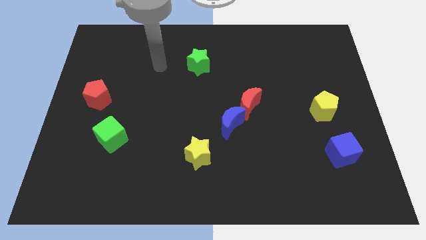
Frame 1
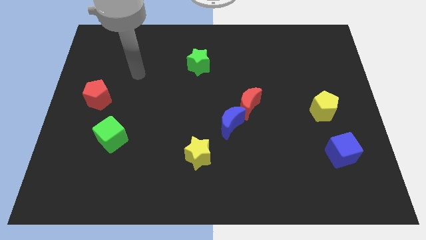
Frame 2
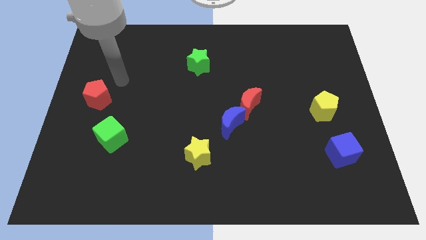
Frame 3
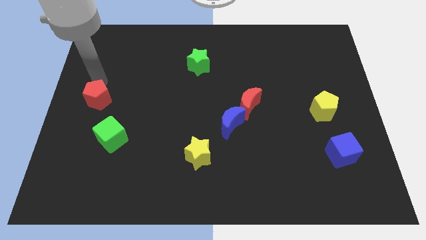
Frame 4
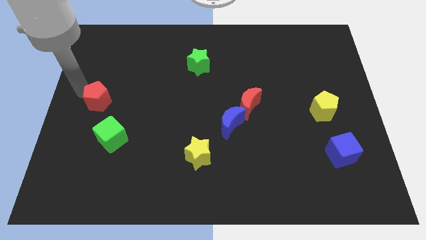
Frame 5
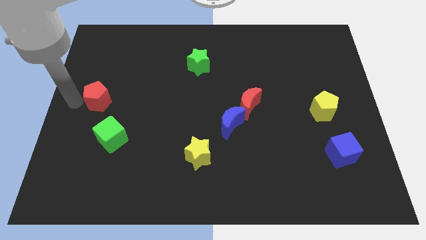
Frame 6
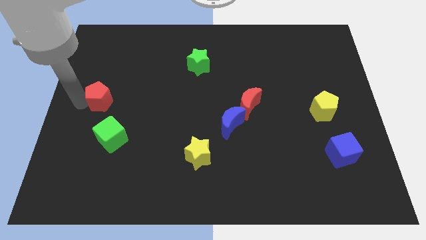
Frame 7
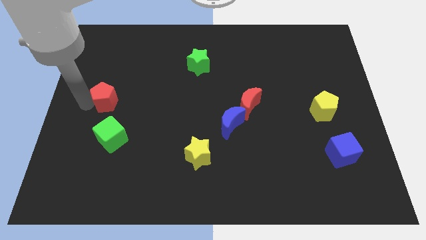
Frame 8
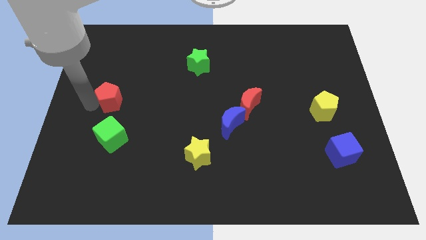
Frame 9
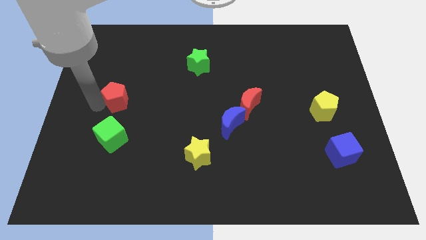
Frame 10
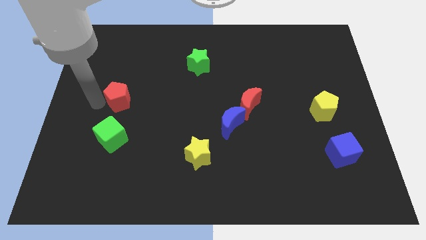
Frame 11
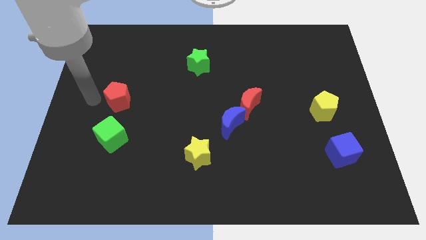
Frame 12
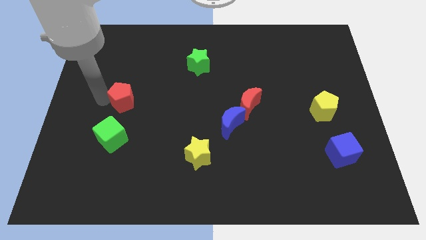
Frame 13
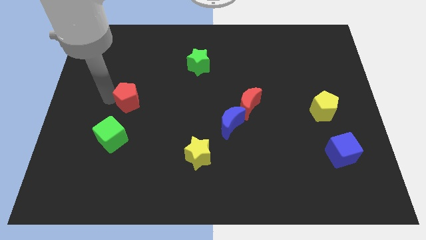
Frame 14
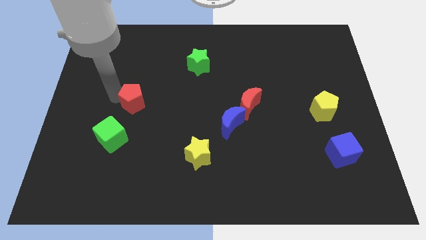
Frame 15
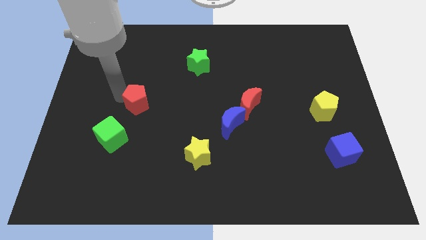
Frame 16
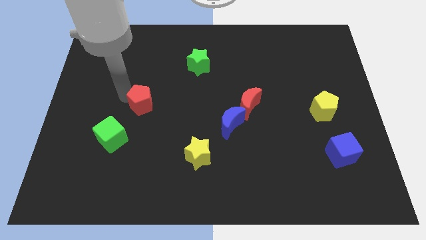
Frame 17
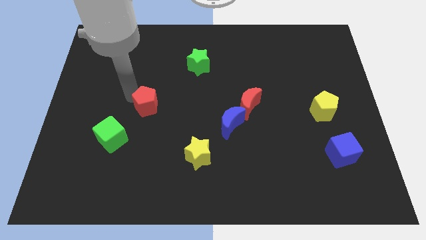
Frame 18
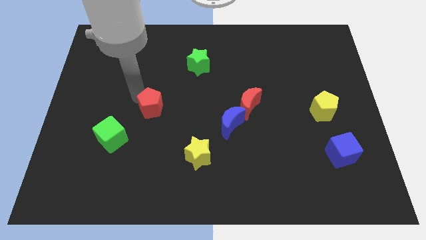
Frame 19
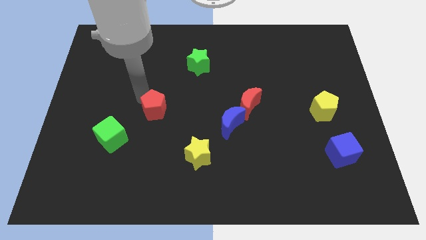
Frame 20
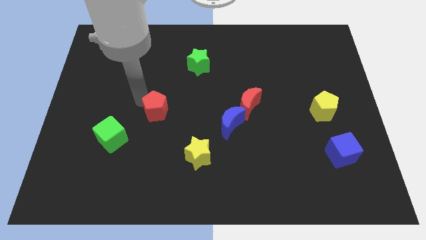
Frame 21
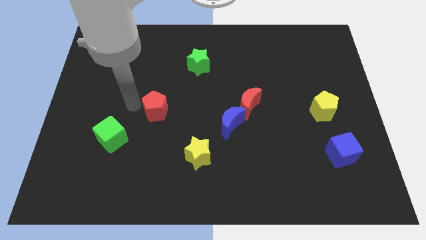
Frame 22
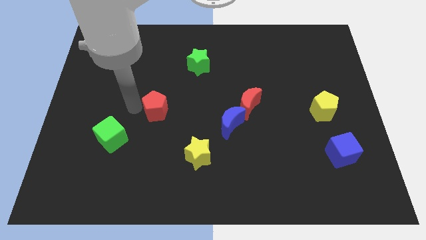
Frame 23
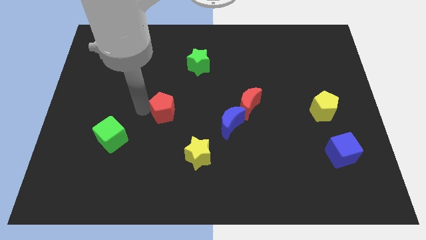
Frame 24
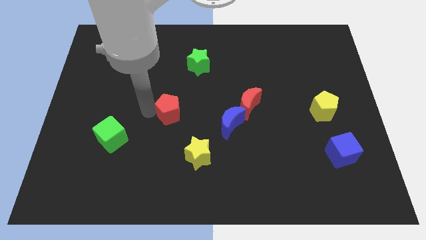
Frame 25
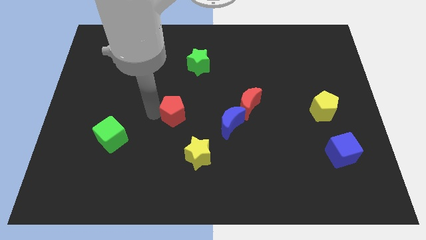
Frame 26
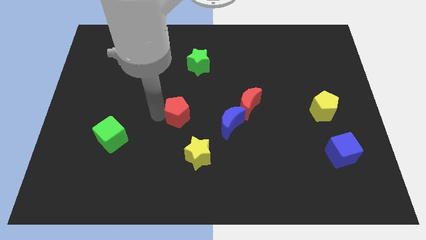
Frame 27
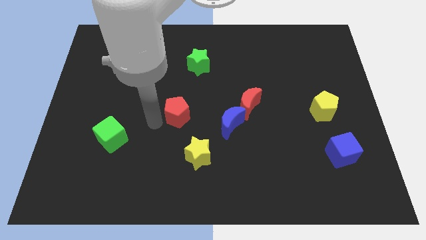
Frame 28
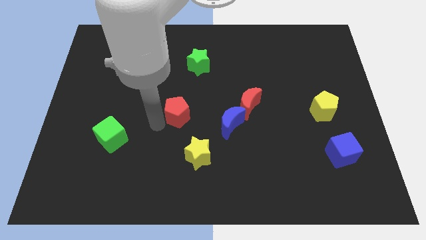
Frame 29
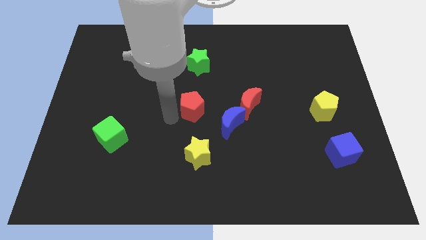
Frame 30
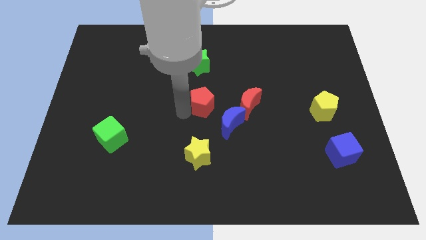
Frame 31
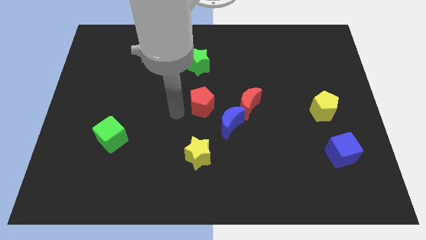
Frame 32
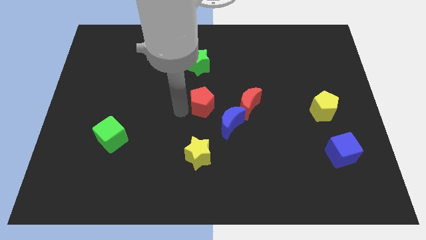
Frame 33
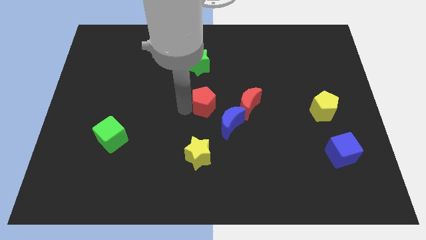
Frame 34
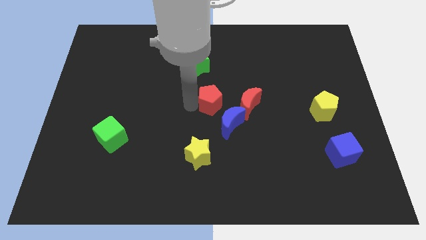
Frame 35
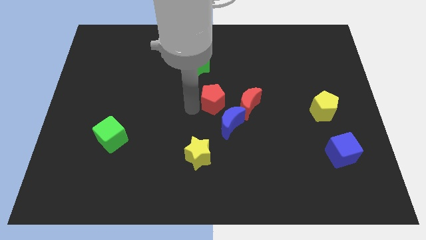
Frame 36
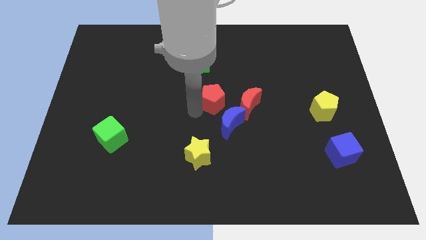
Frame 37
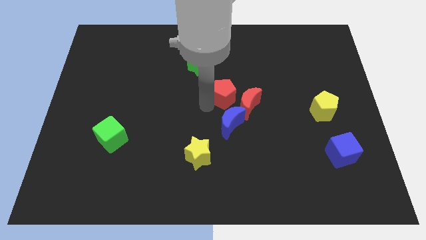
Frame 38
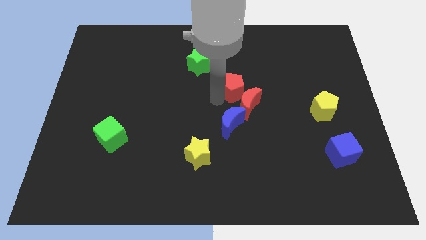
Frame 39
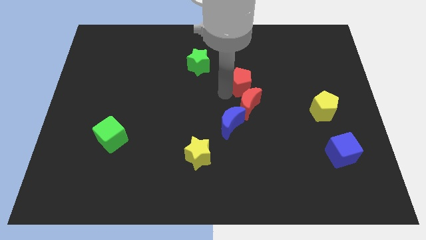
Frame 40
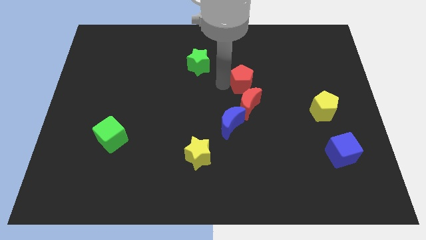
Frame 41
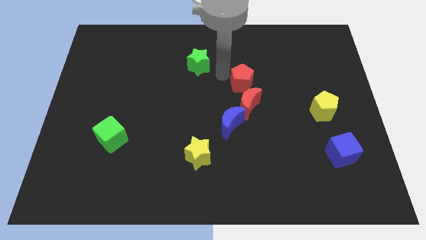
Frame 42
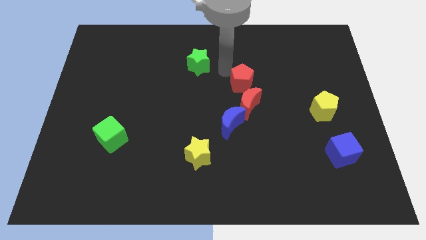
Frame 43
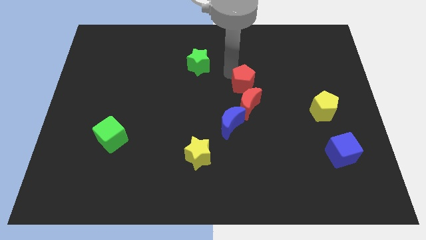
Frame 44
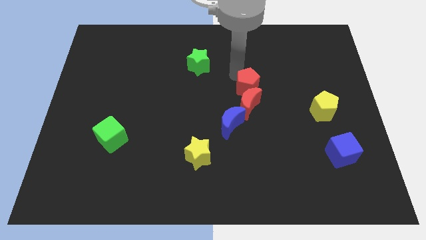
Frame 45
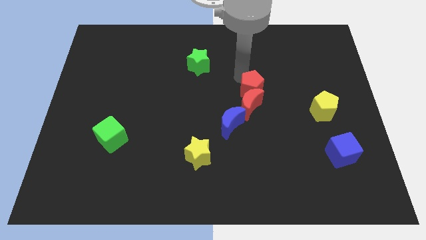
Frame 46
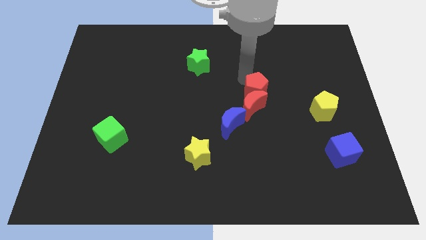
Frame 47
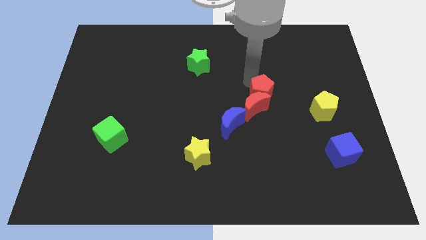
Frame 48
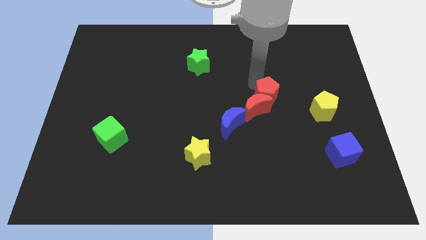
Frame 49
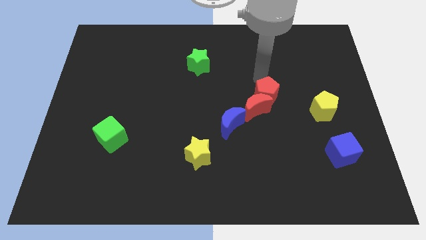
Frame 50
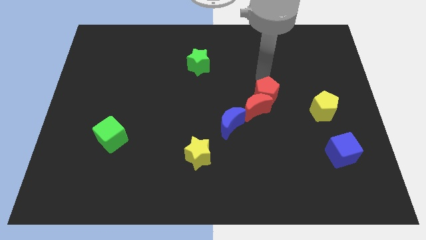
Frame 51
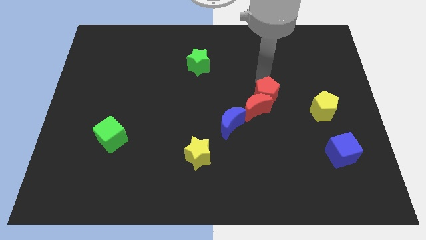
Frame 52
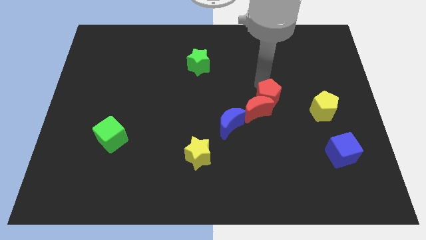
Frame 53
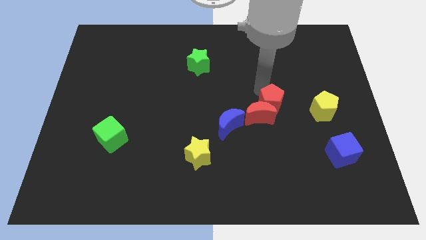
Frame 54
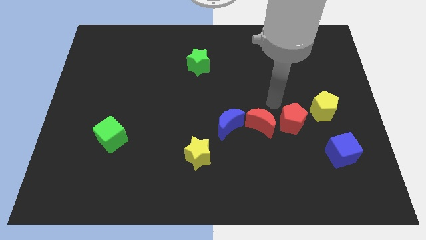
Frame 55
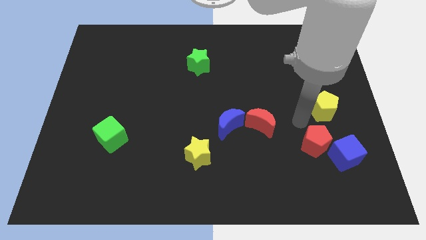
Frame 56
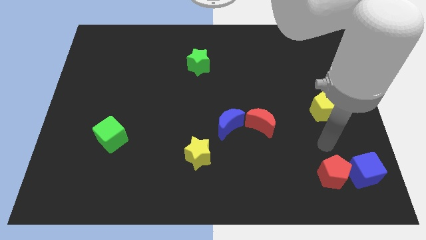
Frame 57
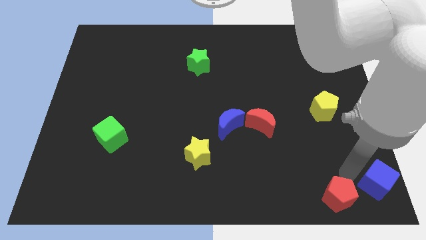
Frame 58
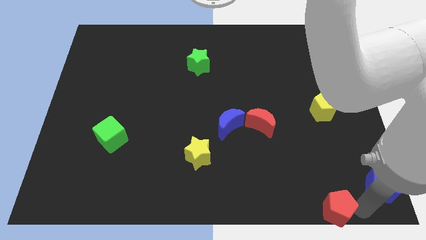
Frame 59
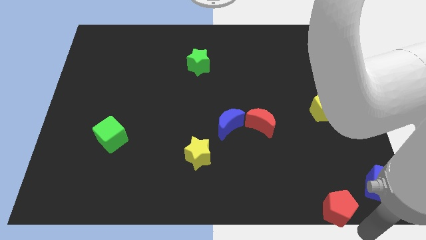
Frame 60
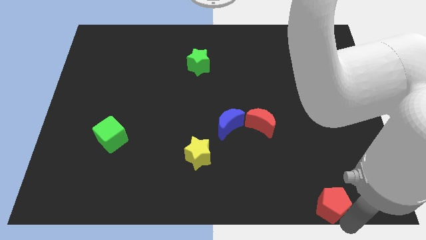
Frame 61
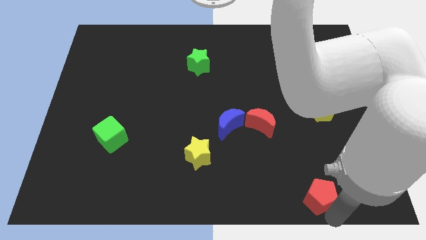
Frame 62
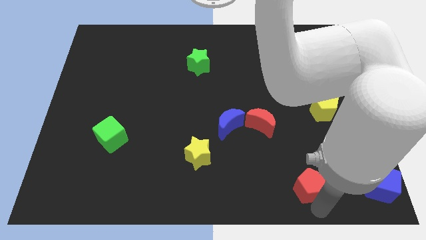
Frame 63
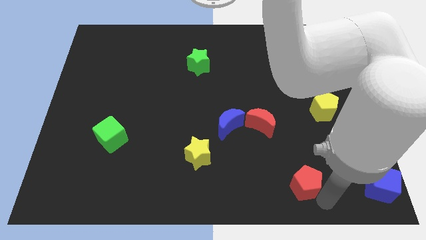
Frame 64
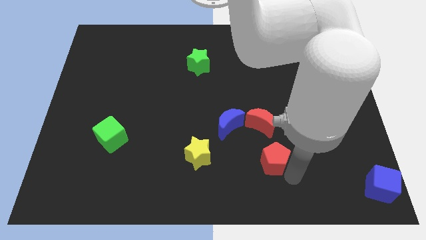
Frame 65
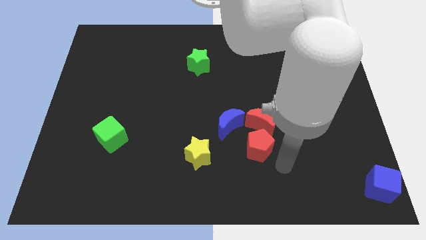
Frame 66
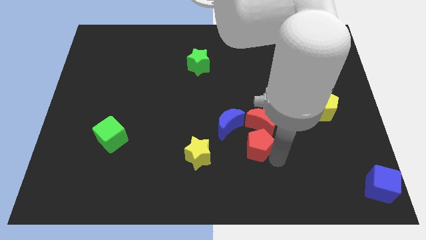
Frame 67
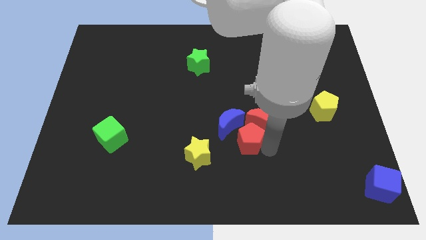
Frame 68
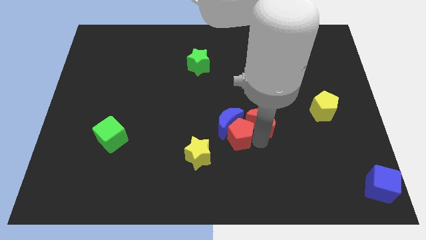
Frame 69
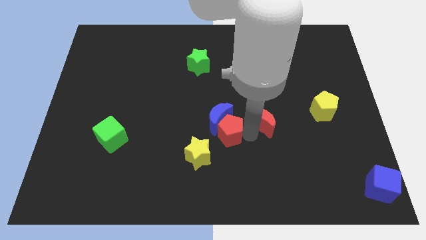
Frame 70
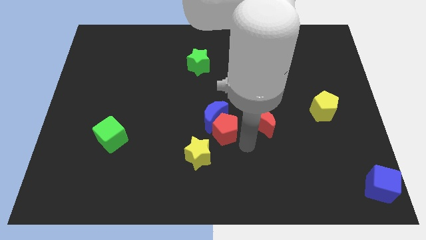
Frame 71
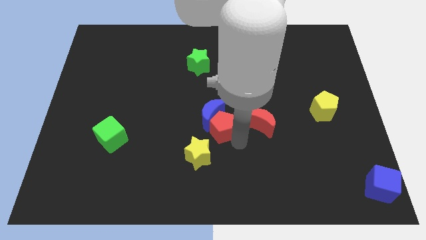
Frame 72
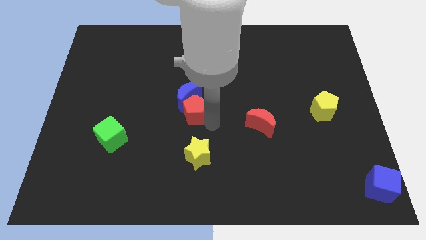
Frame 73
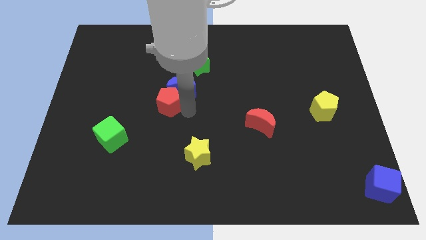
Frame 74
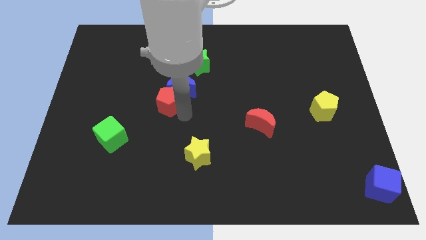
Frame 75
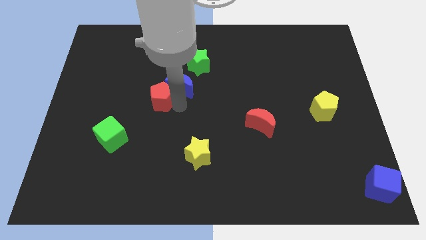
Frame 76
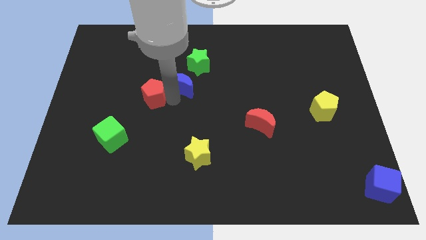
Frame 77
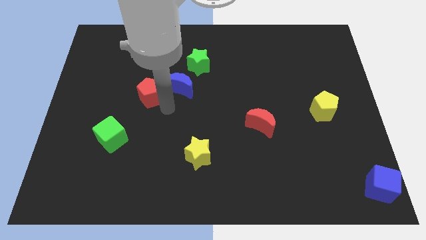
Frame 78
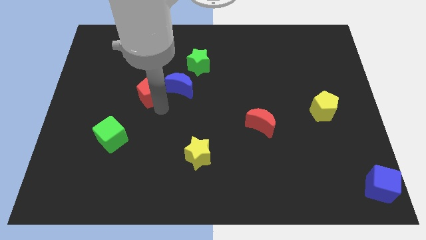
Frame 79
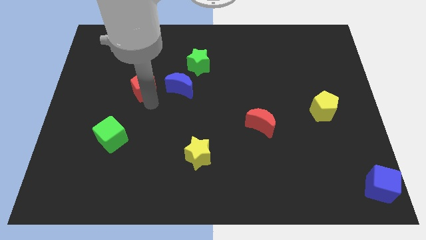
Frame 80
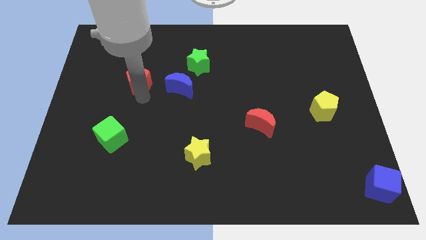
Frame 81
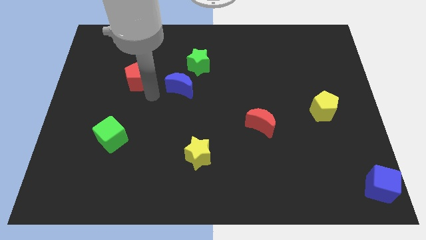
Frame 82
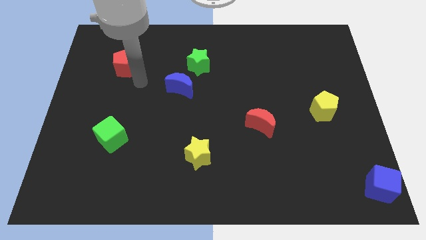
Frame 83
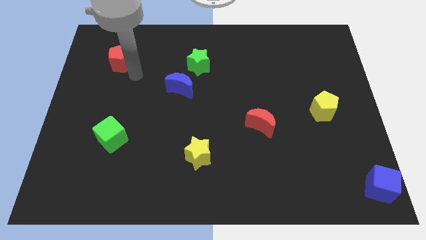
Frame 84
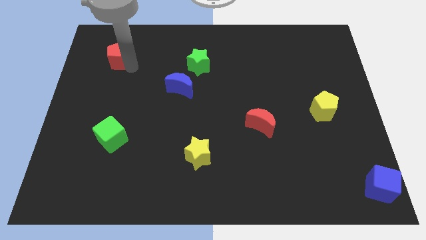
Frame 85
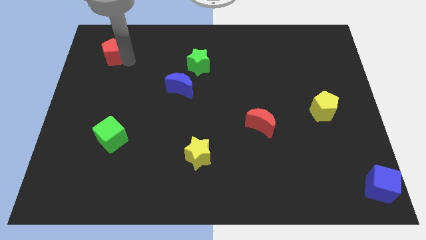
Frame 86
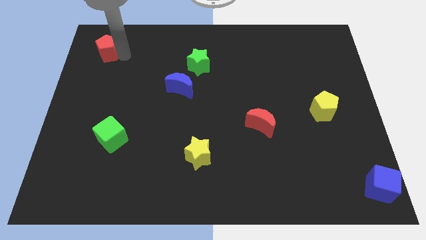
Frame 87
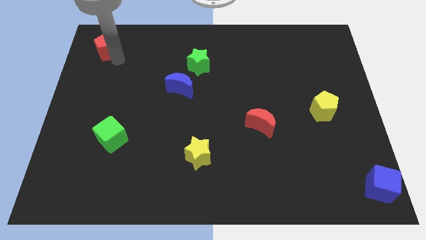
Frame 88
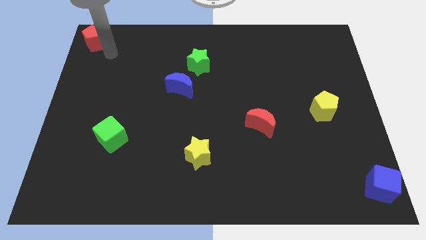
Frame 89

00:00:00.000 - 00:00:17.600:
put the red pentagon to the top left
